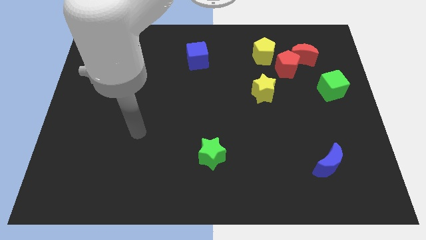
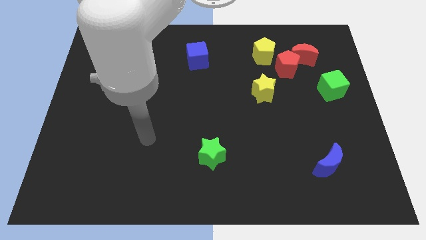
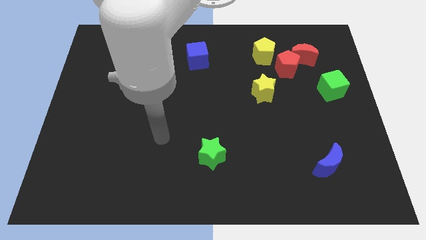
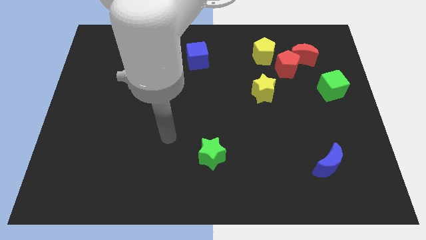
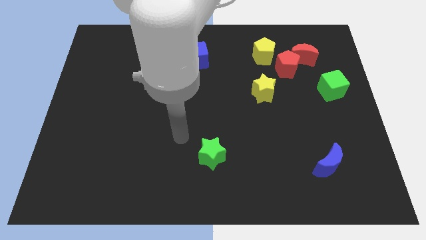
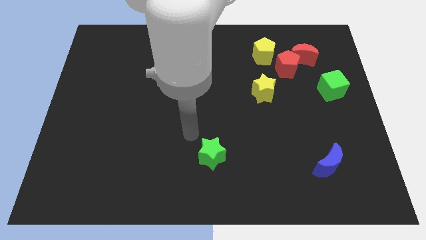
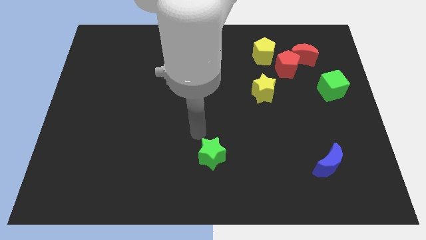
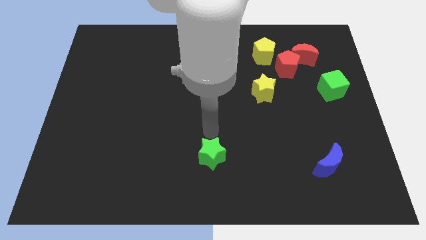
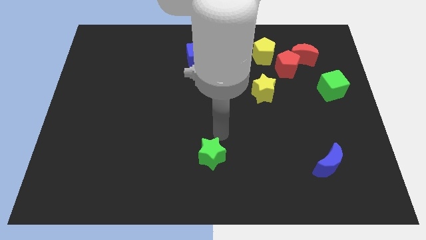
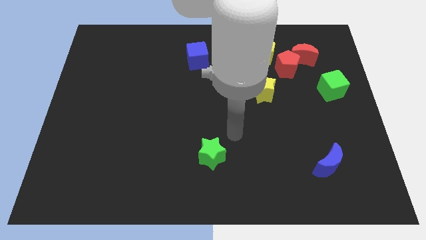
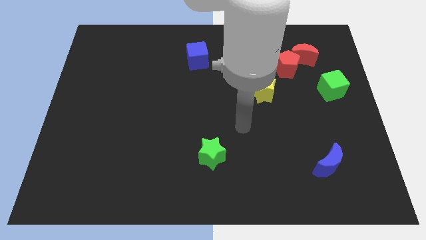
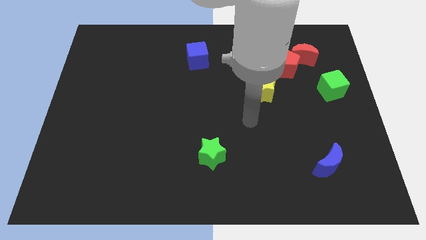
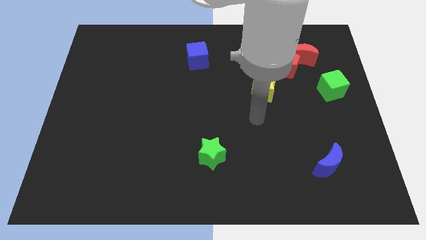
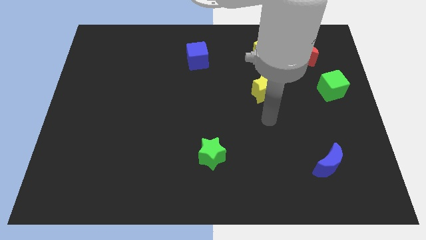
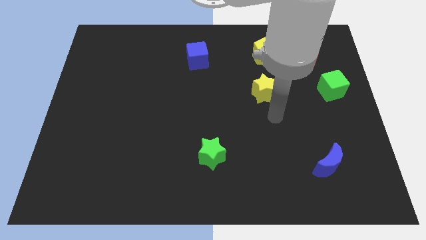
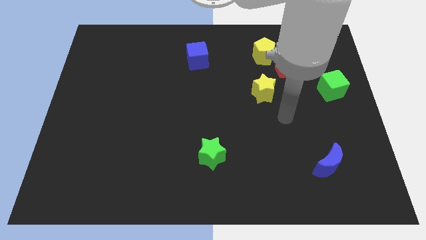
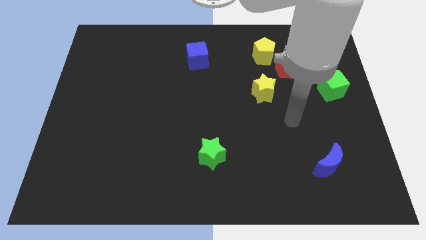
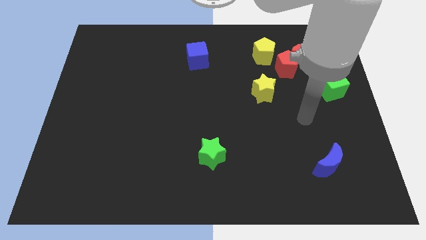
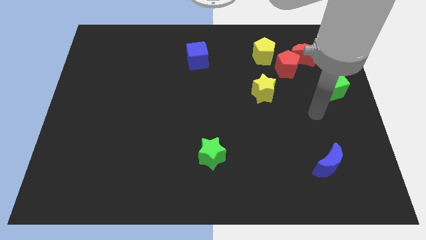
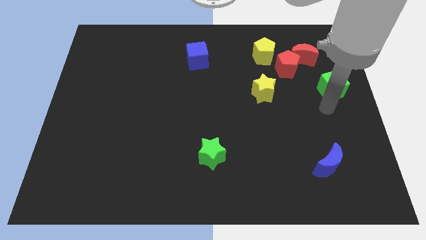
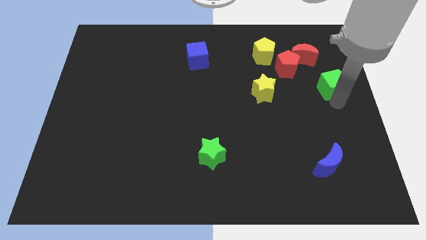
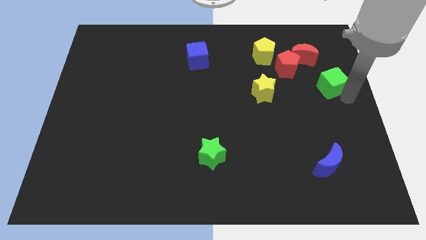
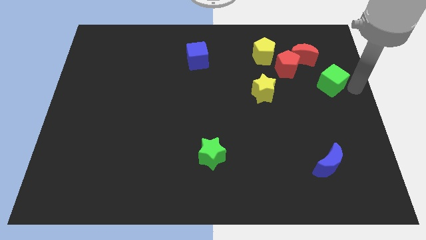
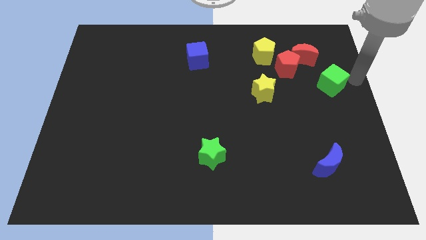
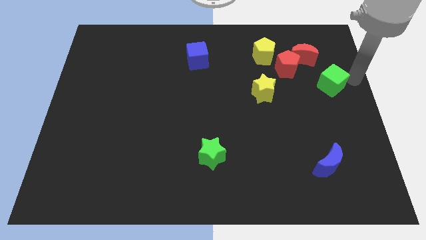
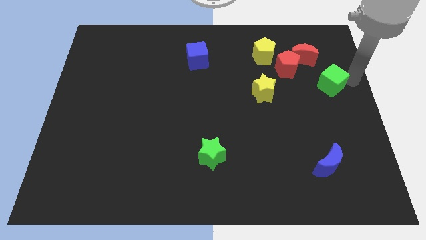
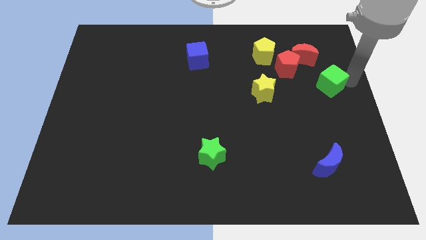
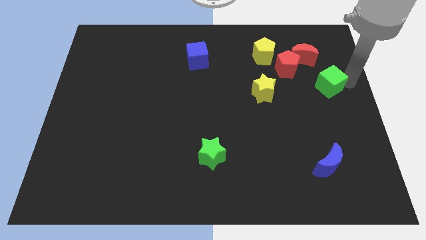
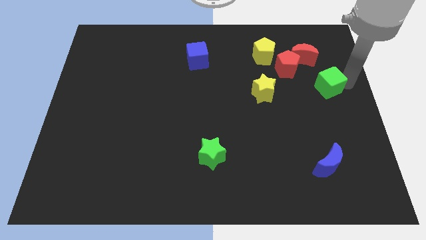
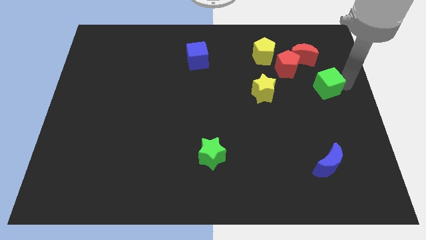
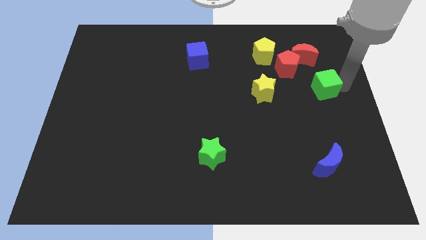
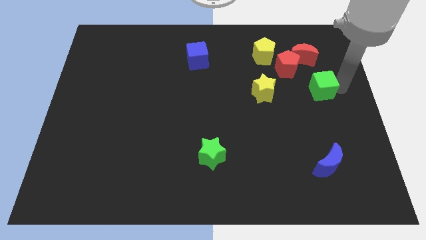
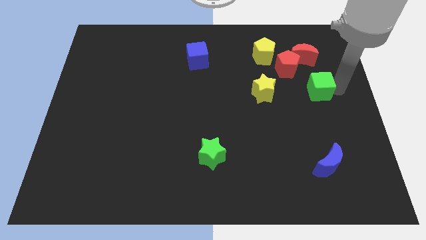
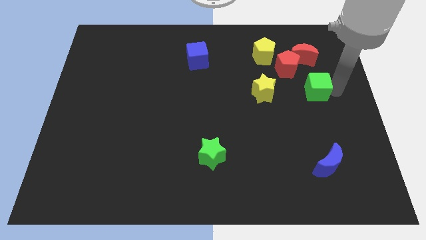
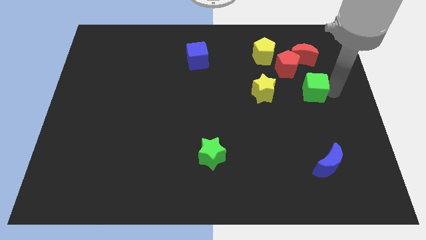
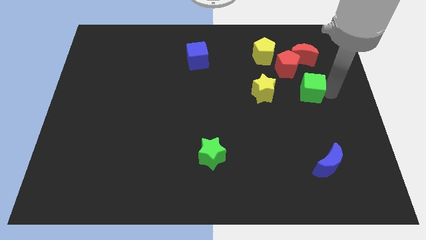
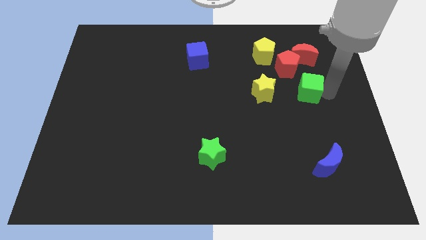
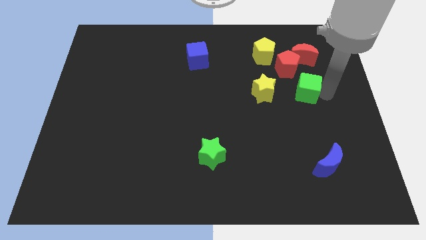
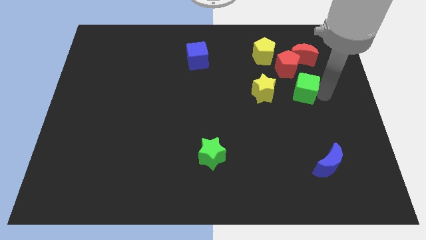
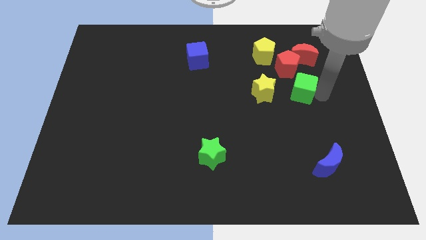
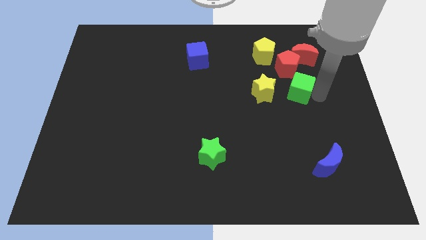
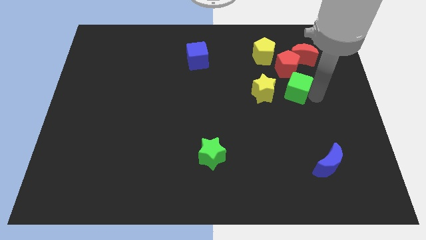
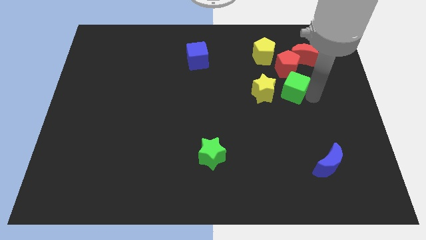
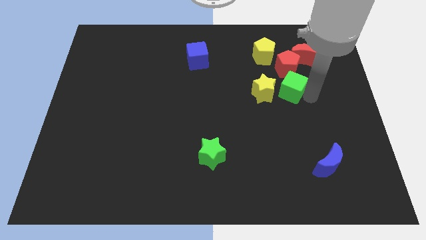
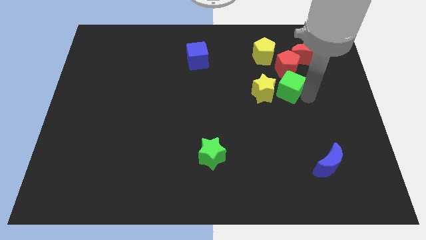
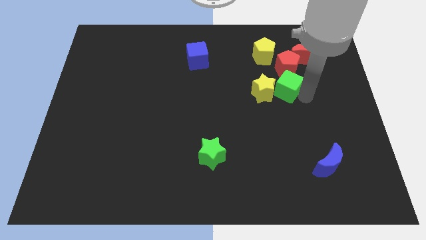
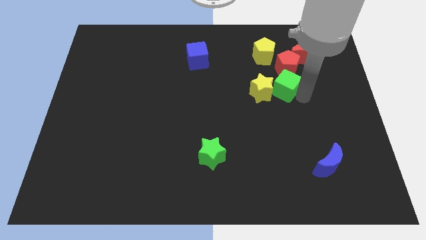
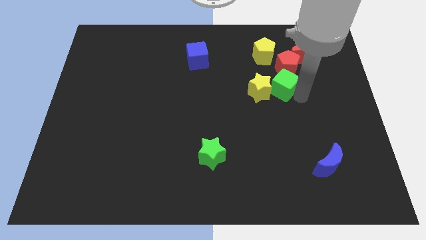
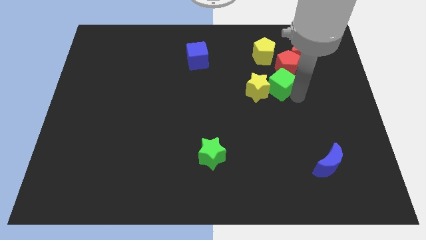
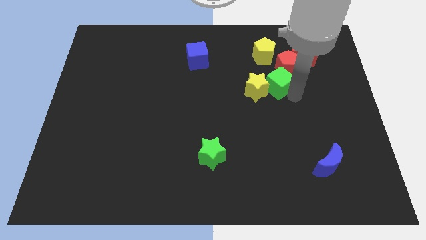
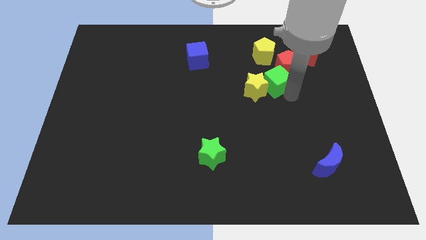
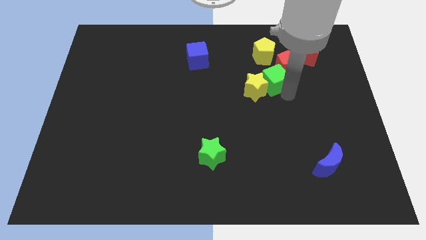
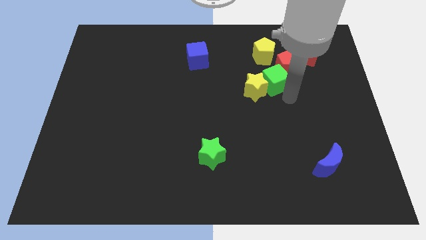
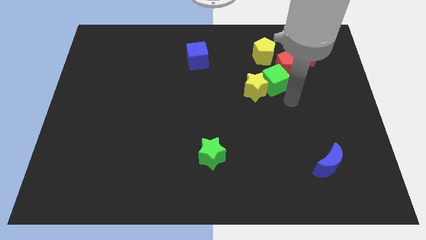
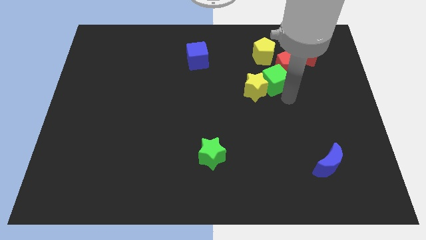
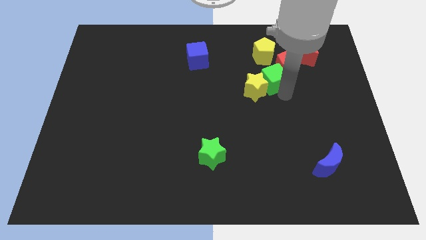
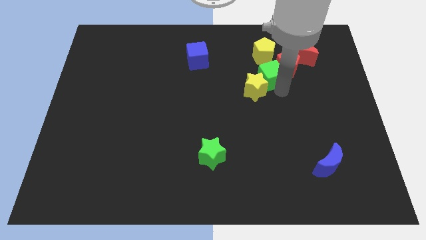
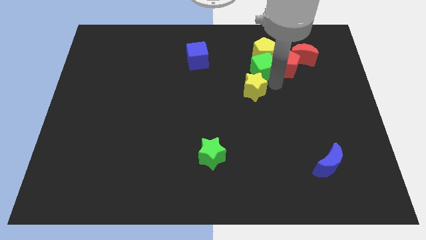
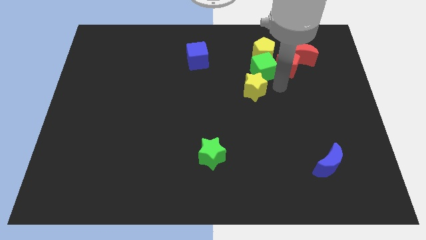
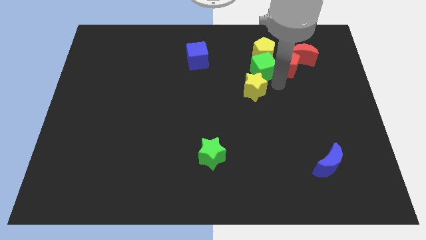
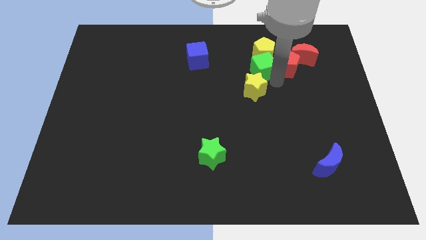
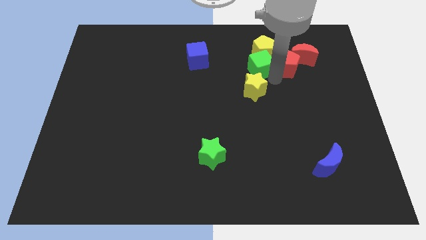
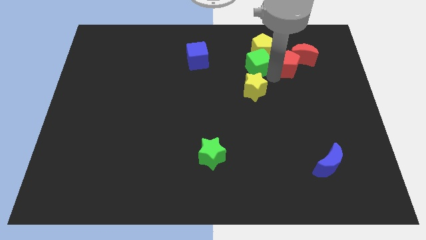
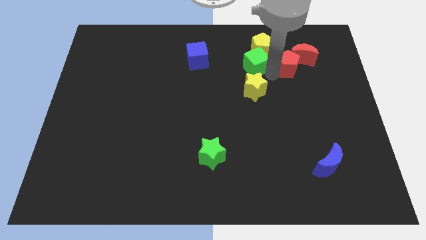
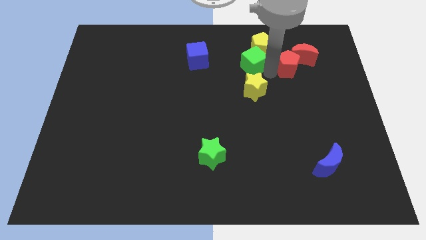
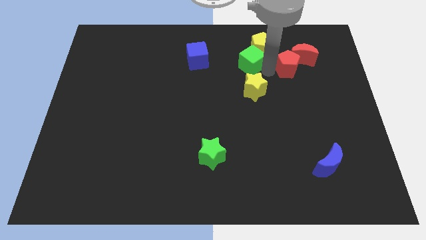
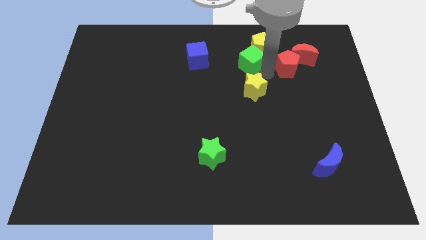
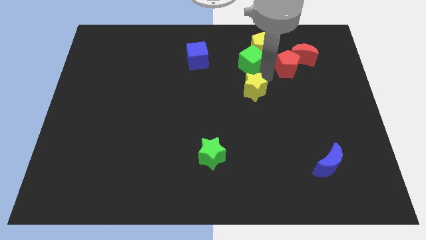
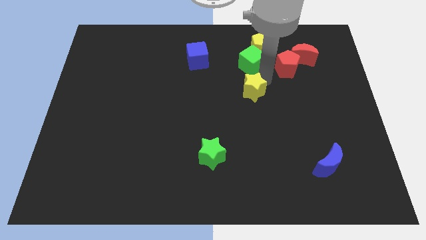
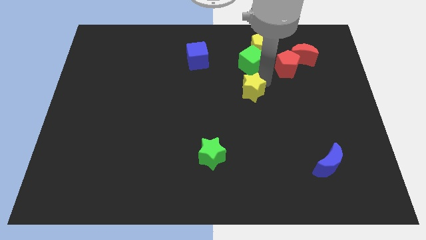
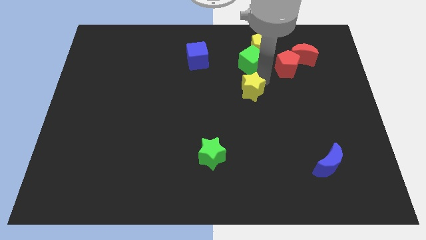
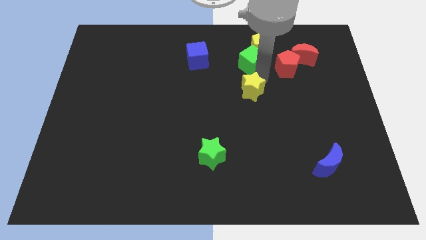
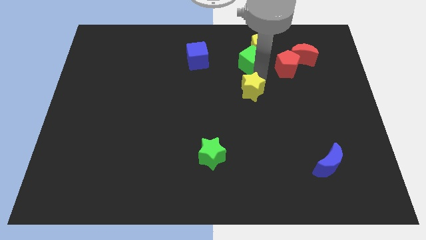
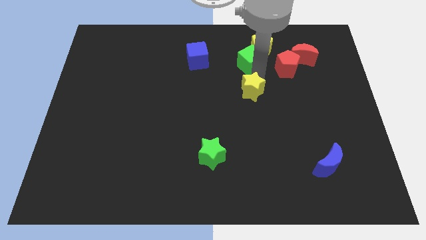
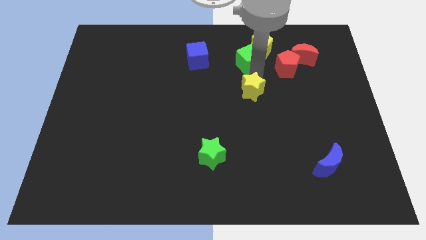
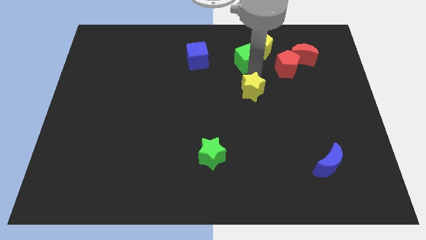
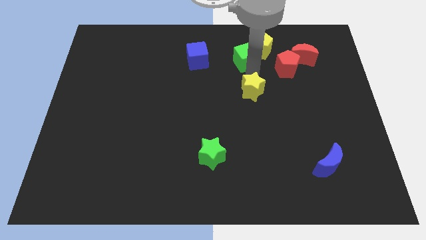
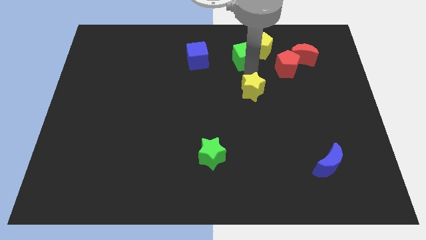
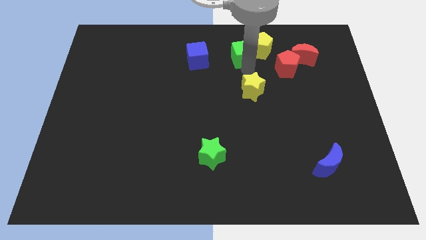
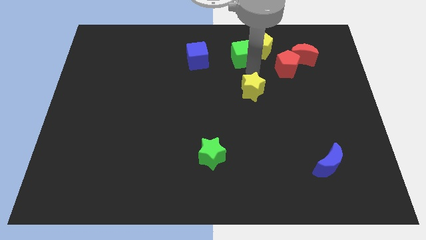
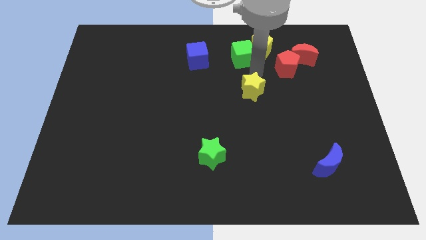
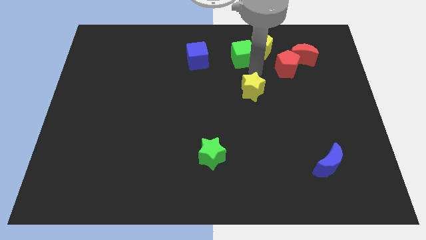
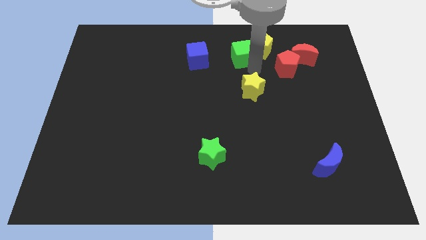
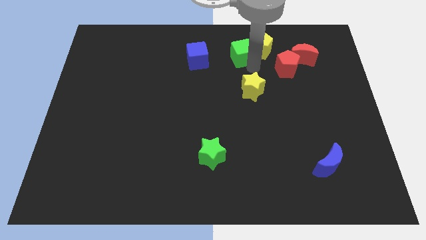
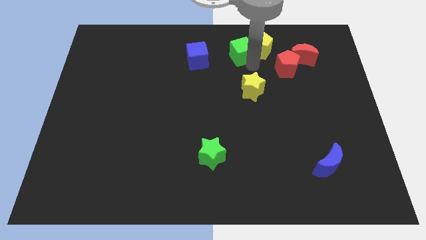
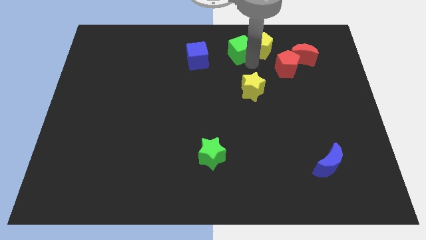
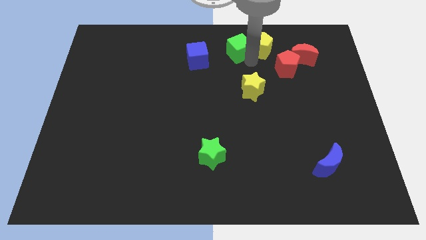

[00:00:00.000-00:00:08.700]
slide the green cube to the top side
